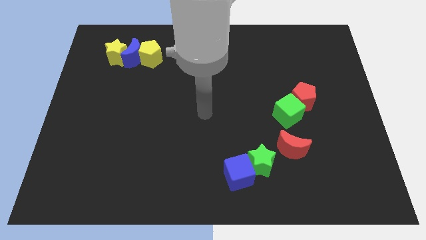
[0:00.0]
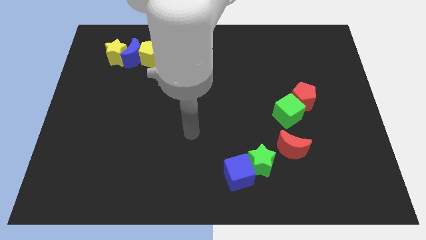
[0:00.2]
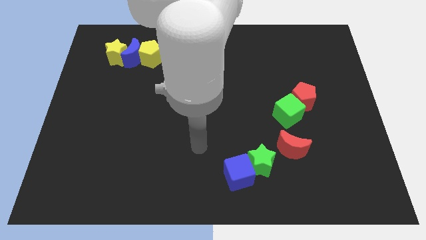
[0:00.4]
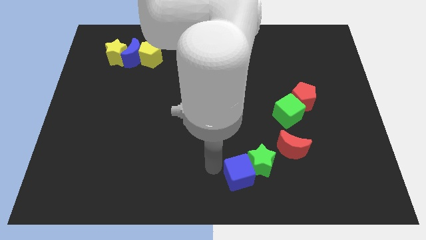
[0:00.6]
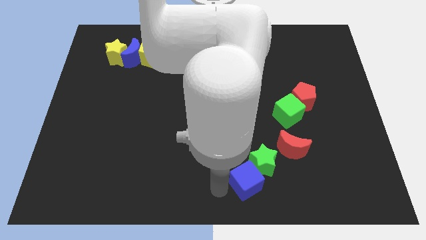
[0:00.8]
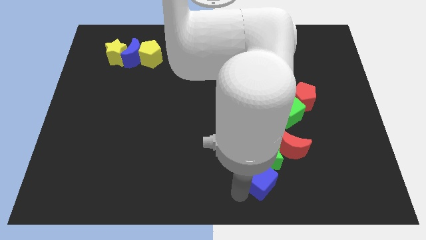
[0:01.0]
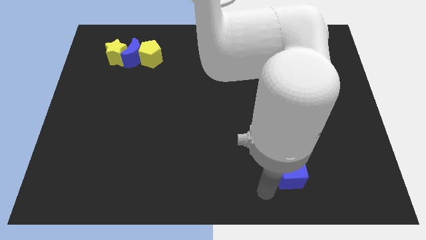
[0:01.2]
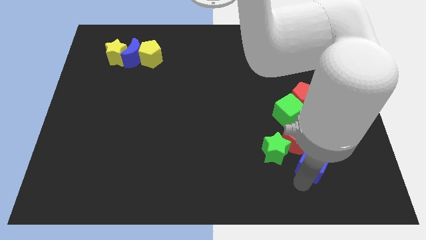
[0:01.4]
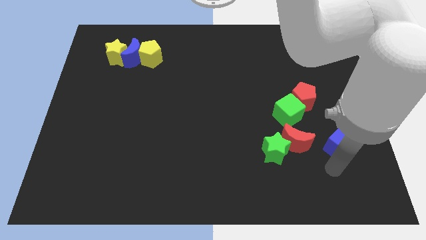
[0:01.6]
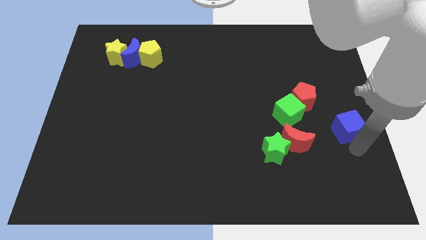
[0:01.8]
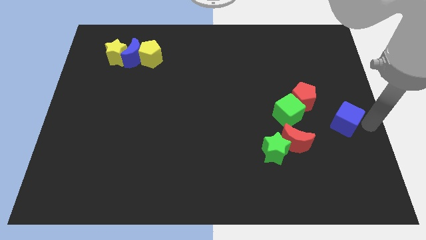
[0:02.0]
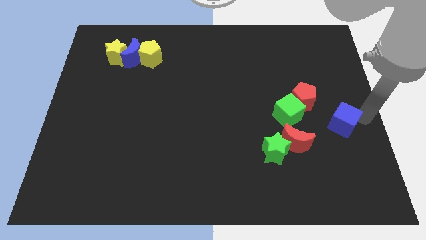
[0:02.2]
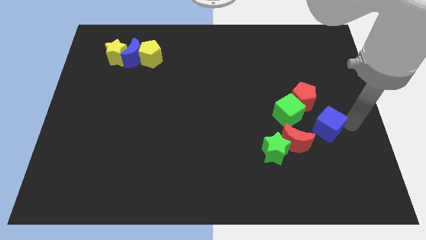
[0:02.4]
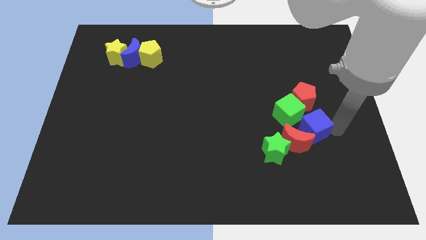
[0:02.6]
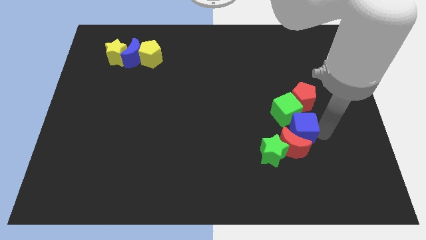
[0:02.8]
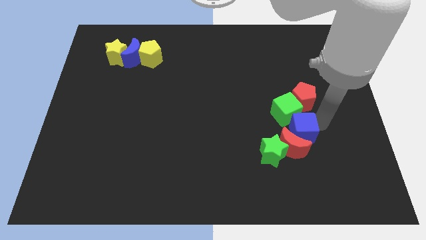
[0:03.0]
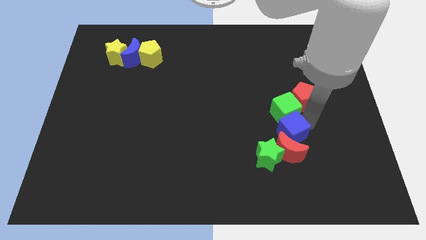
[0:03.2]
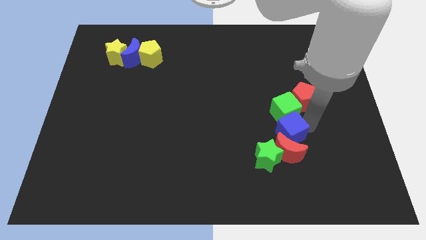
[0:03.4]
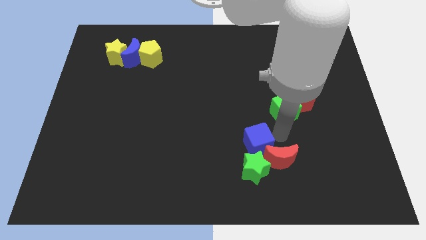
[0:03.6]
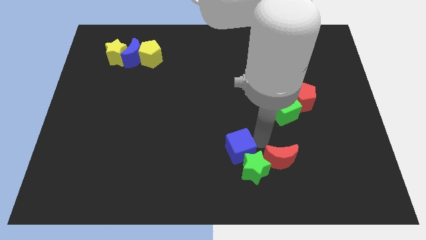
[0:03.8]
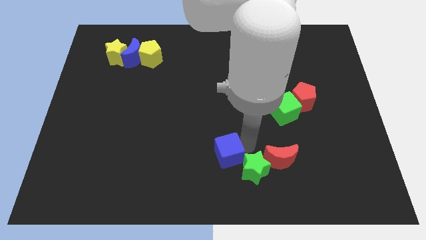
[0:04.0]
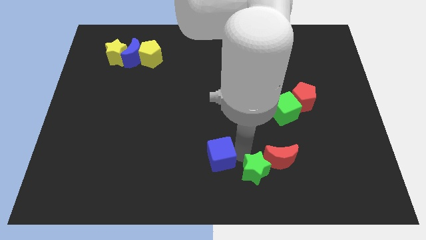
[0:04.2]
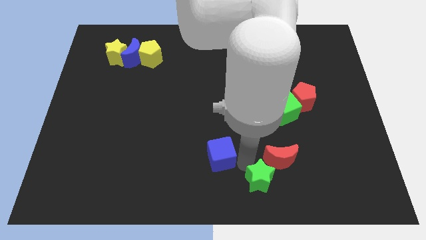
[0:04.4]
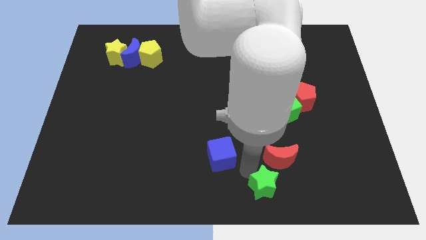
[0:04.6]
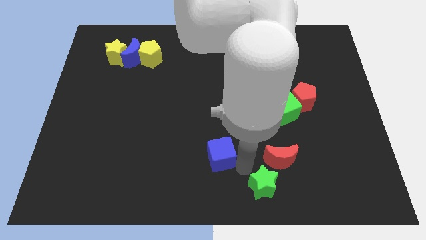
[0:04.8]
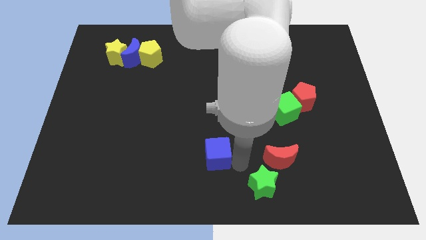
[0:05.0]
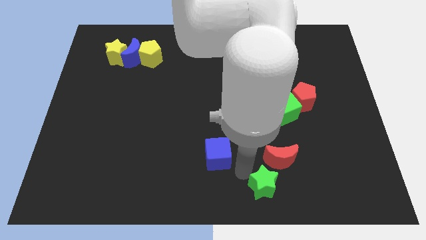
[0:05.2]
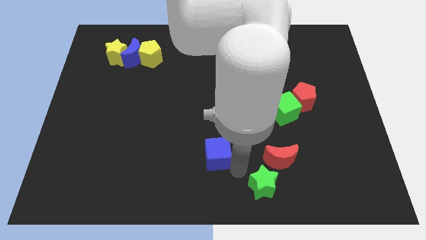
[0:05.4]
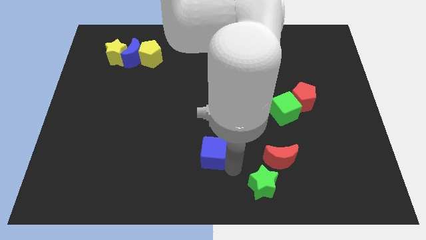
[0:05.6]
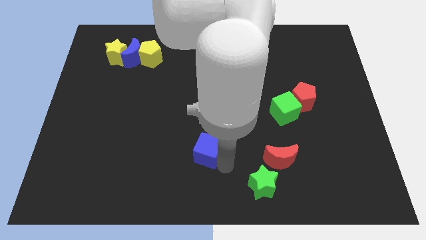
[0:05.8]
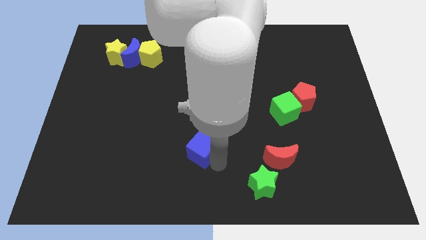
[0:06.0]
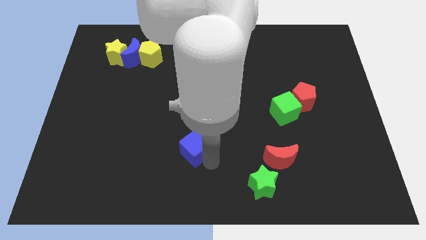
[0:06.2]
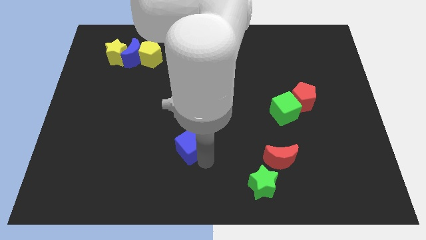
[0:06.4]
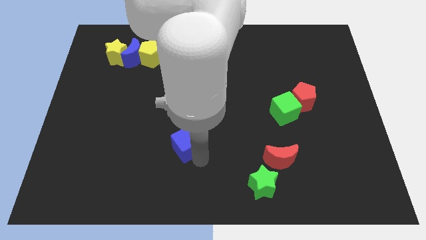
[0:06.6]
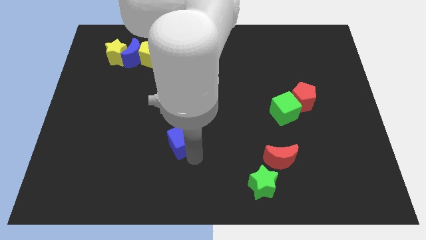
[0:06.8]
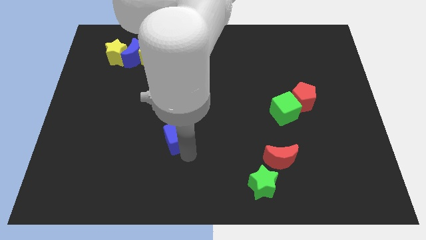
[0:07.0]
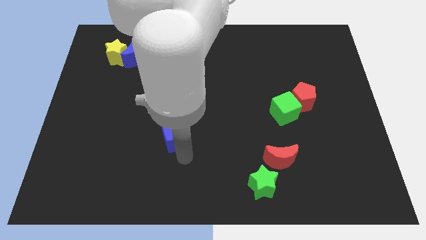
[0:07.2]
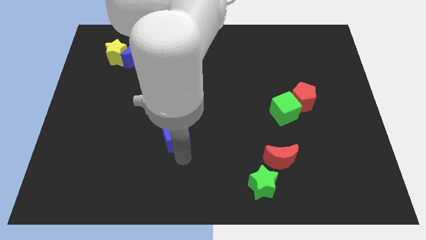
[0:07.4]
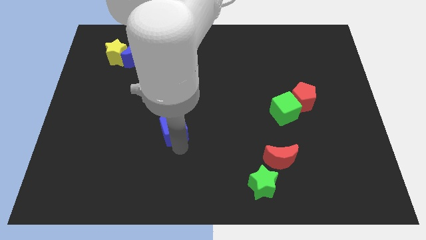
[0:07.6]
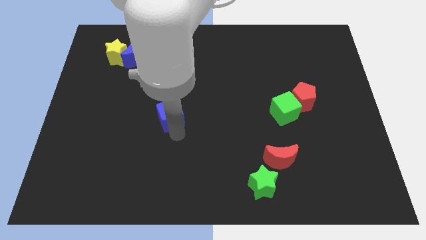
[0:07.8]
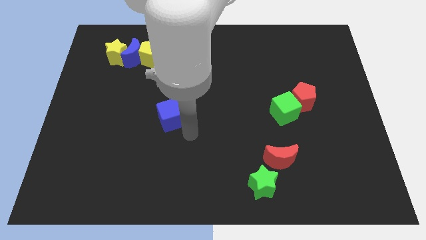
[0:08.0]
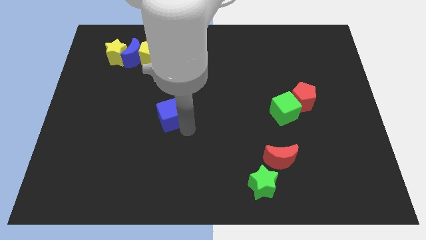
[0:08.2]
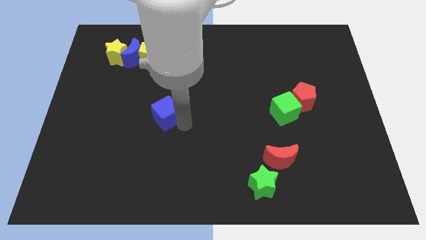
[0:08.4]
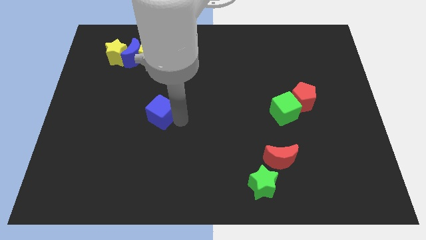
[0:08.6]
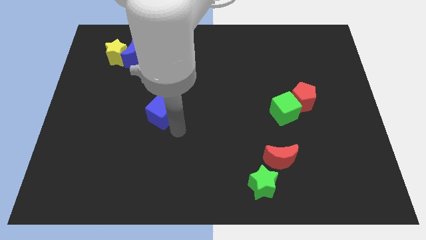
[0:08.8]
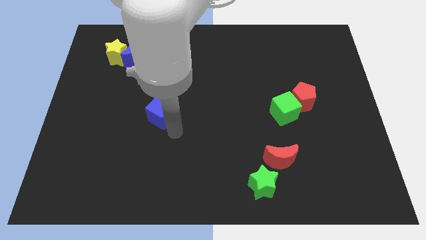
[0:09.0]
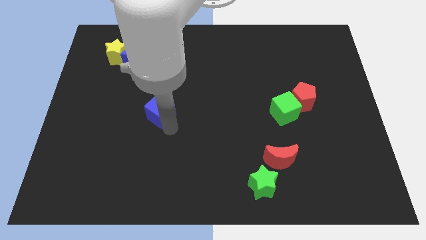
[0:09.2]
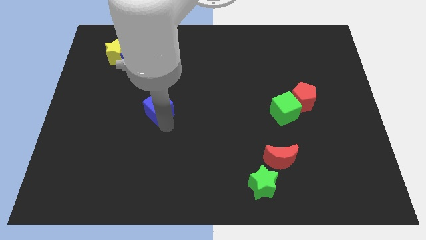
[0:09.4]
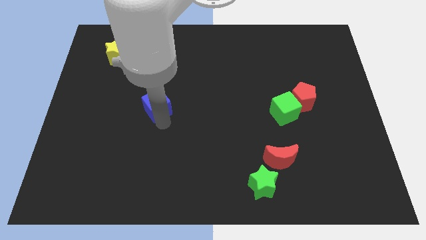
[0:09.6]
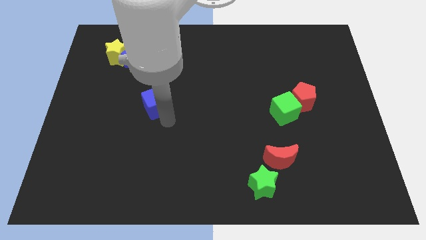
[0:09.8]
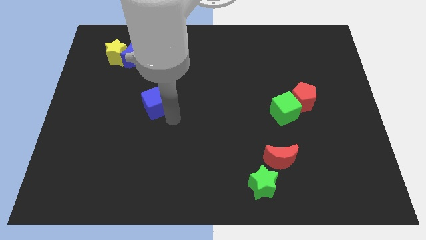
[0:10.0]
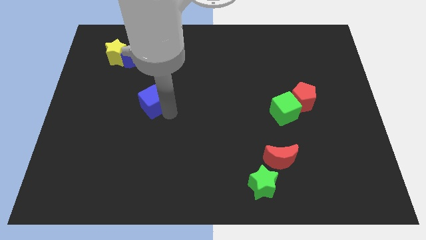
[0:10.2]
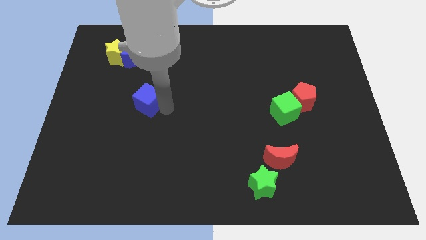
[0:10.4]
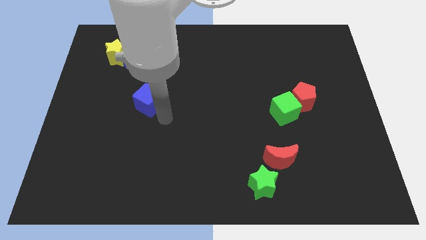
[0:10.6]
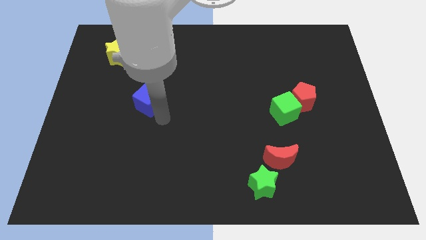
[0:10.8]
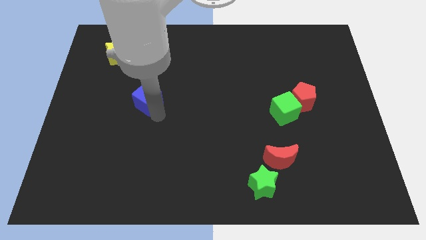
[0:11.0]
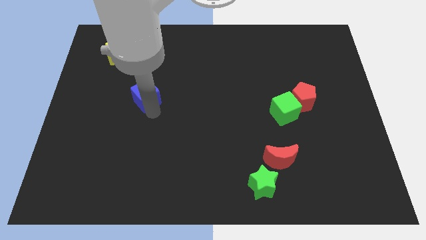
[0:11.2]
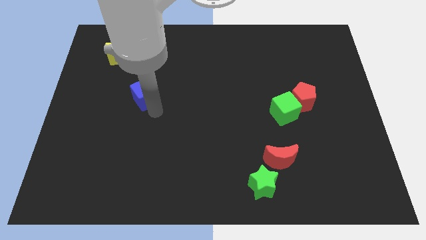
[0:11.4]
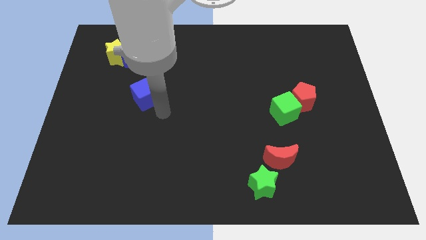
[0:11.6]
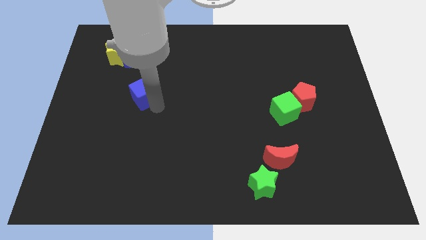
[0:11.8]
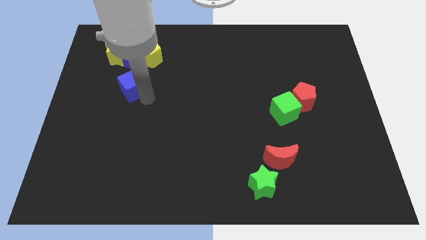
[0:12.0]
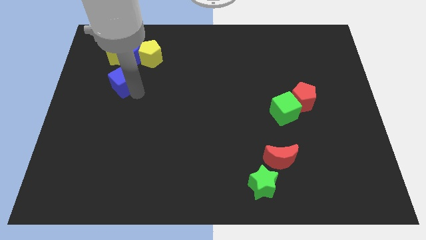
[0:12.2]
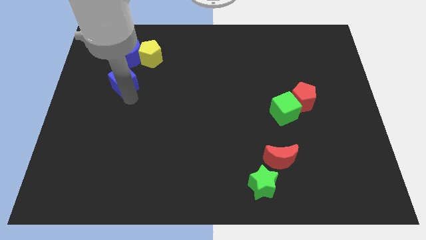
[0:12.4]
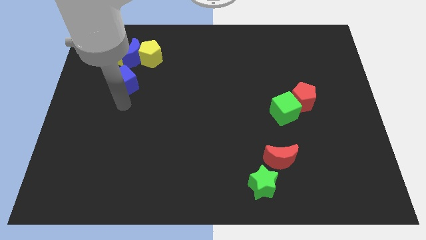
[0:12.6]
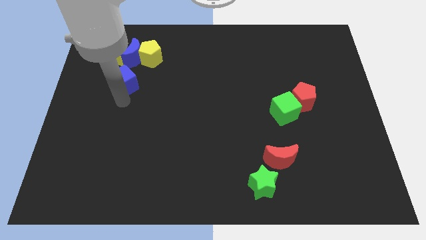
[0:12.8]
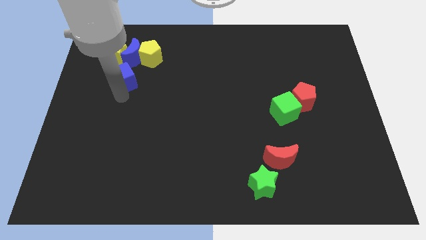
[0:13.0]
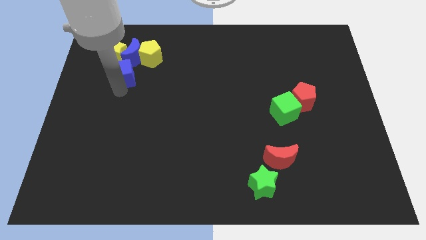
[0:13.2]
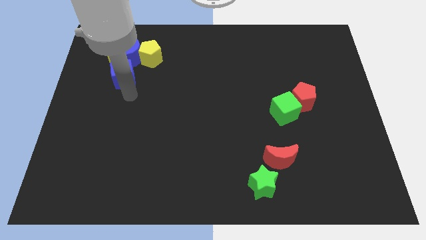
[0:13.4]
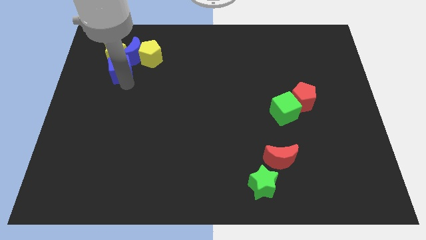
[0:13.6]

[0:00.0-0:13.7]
slide the blue cube next to the yellow star

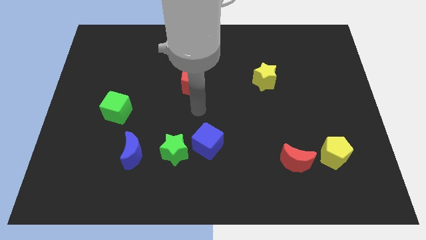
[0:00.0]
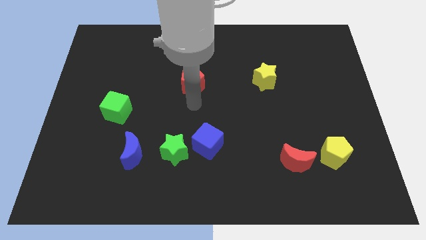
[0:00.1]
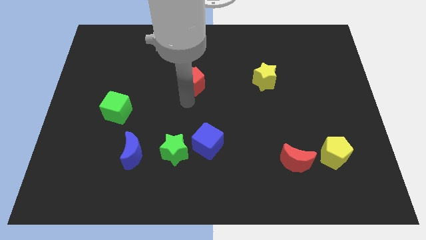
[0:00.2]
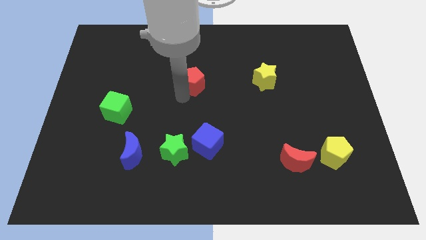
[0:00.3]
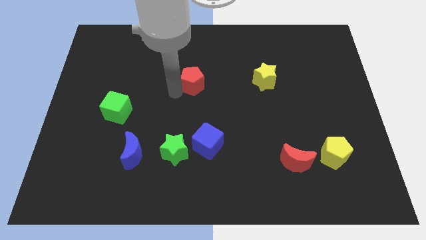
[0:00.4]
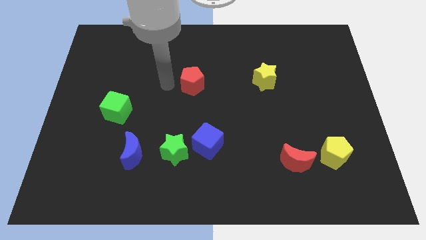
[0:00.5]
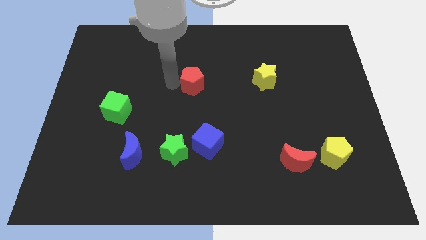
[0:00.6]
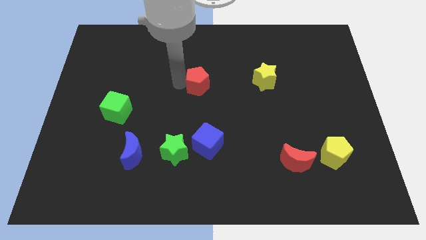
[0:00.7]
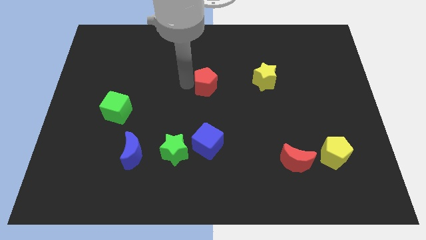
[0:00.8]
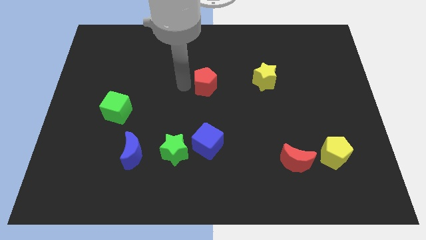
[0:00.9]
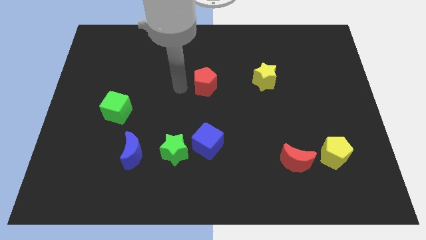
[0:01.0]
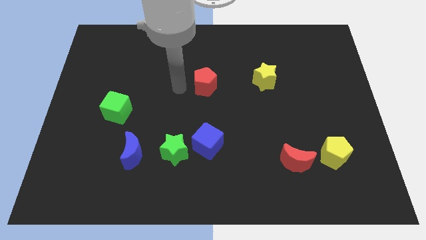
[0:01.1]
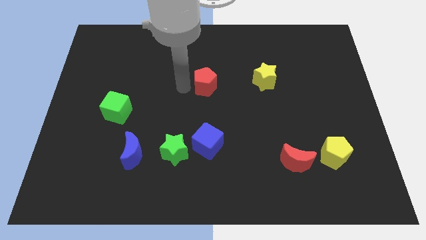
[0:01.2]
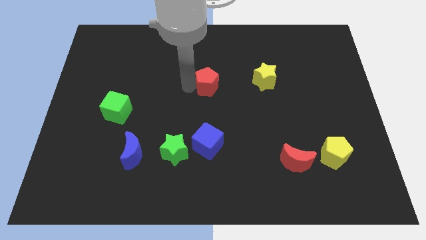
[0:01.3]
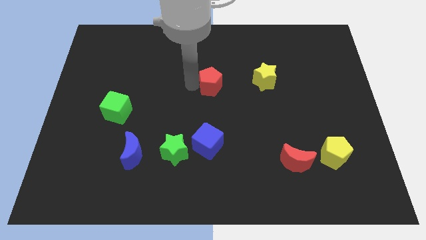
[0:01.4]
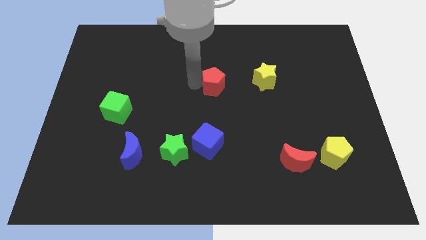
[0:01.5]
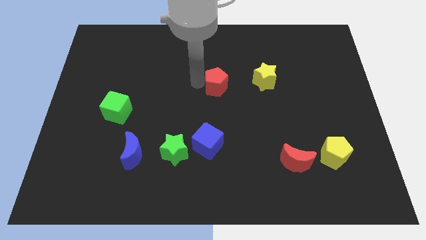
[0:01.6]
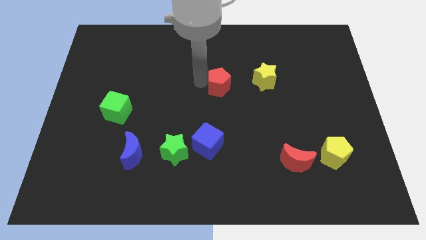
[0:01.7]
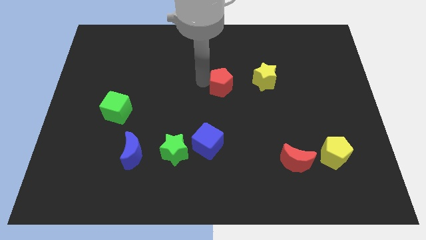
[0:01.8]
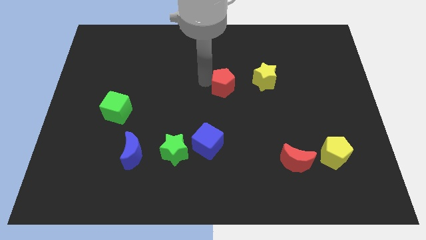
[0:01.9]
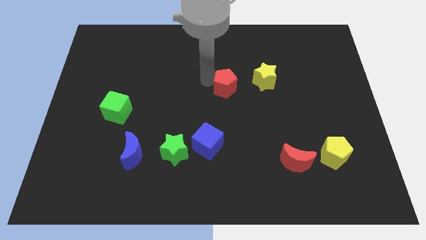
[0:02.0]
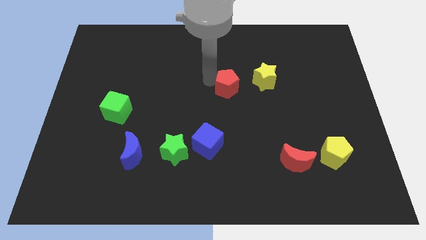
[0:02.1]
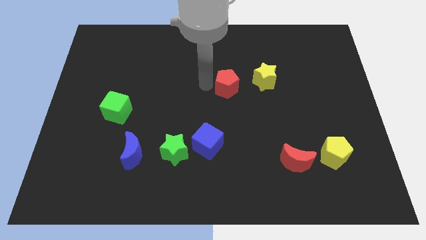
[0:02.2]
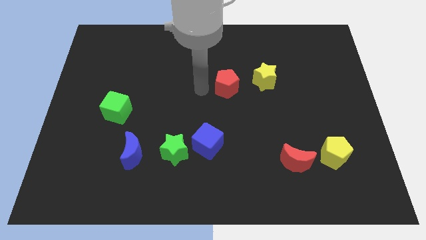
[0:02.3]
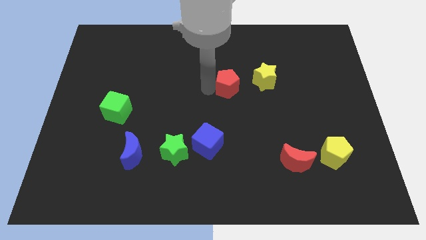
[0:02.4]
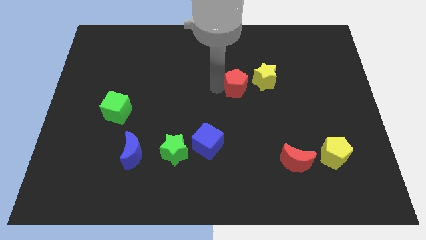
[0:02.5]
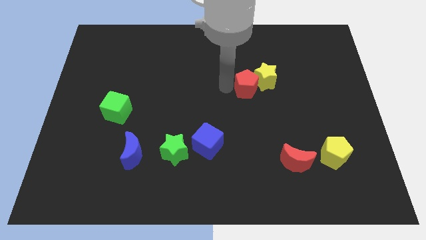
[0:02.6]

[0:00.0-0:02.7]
move the red pentagon towards the yellow star
